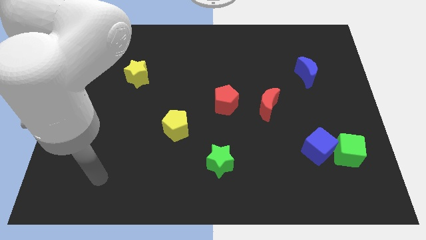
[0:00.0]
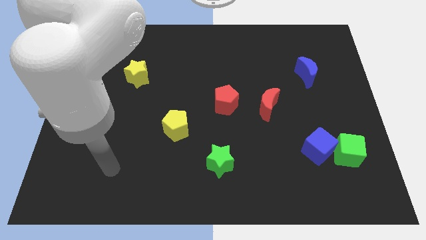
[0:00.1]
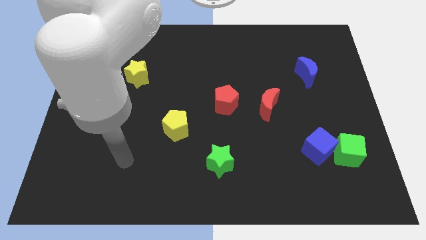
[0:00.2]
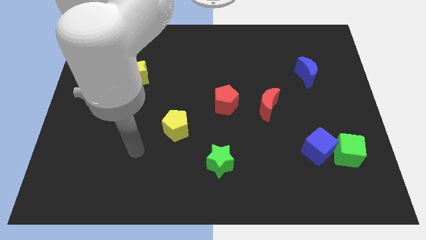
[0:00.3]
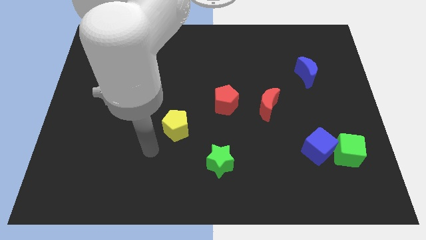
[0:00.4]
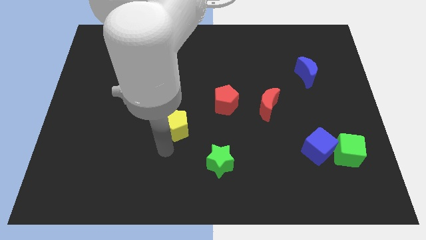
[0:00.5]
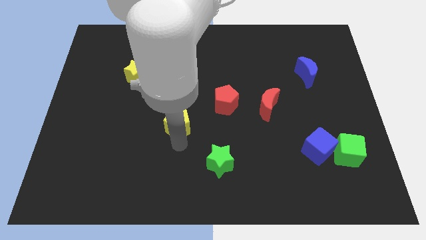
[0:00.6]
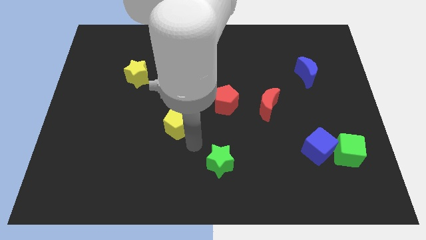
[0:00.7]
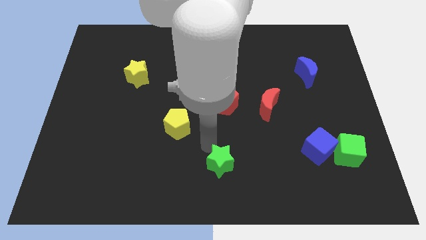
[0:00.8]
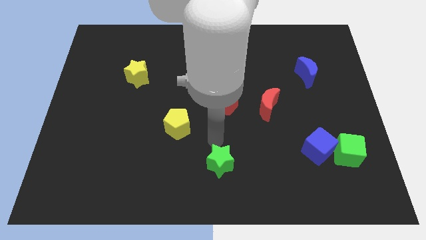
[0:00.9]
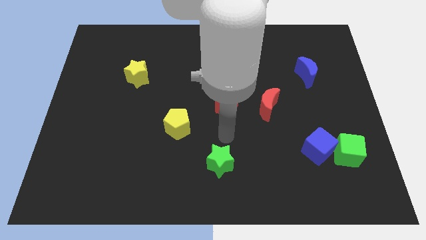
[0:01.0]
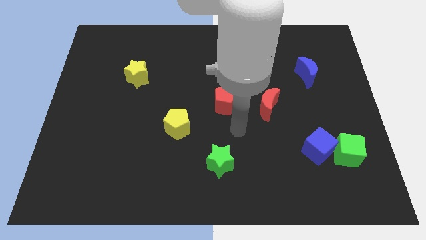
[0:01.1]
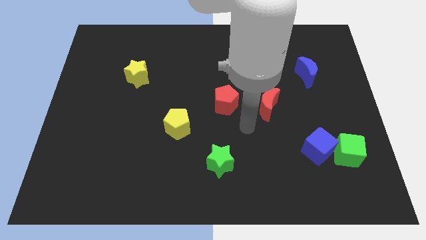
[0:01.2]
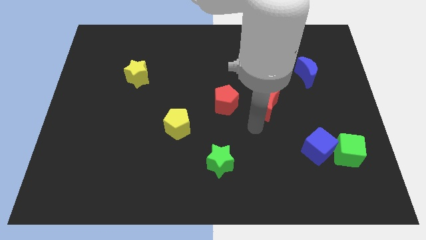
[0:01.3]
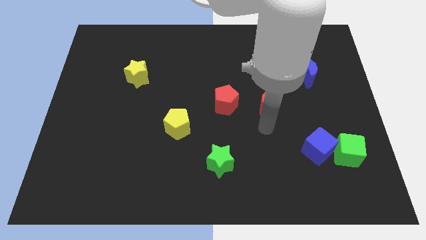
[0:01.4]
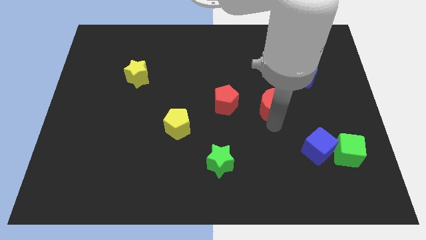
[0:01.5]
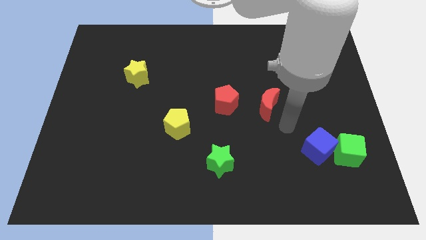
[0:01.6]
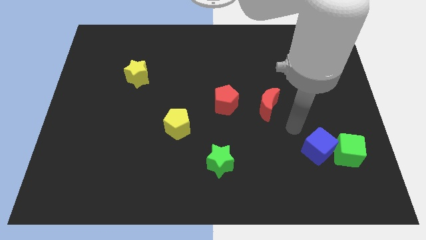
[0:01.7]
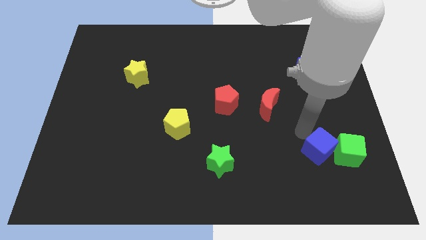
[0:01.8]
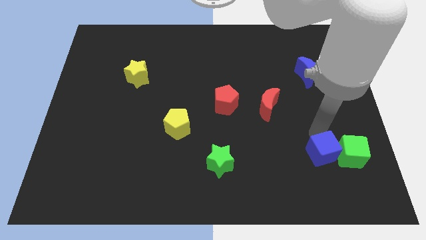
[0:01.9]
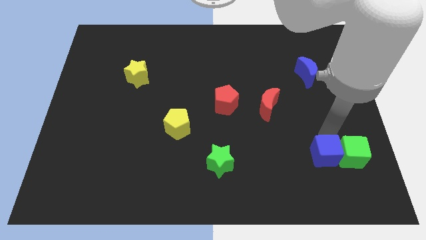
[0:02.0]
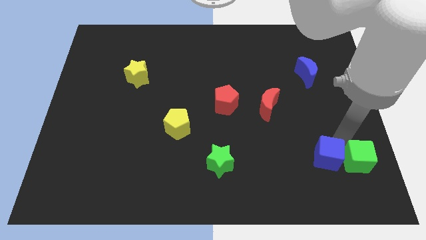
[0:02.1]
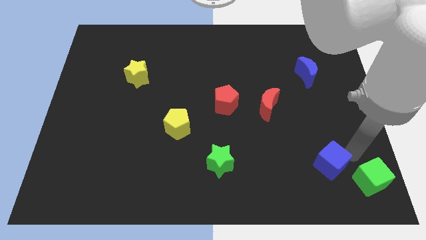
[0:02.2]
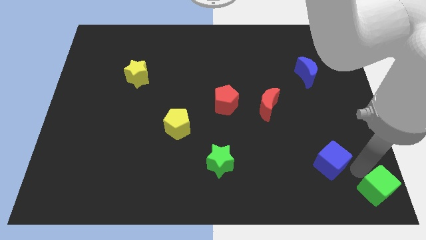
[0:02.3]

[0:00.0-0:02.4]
separate the blue cube from the green cube

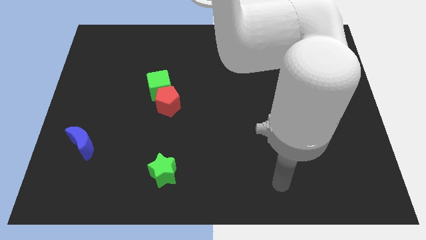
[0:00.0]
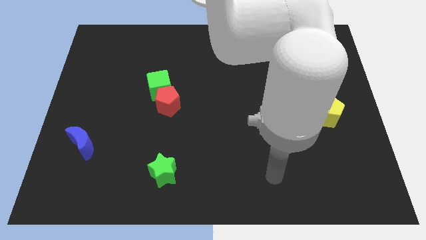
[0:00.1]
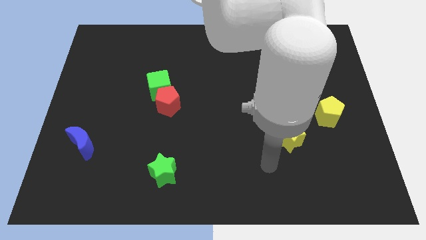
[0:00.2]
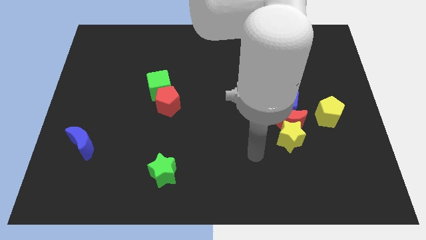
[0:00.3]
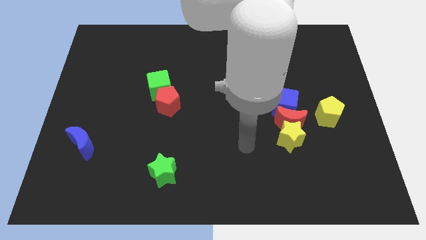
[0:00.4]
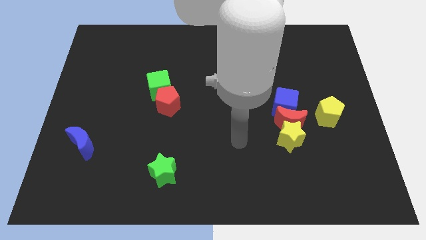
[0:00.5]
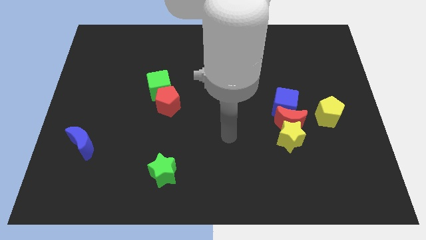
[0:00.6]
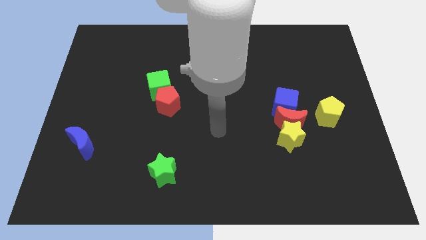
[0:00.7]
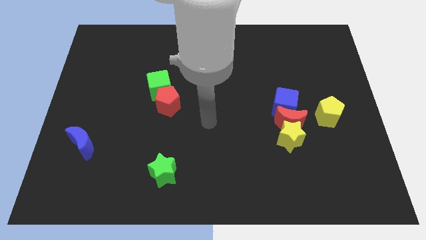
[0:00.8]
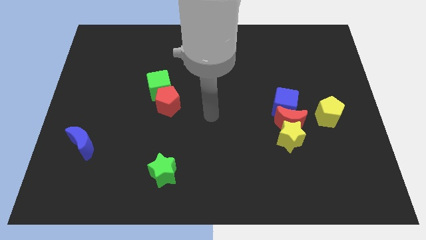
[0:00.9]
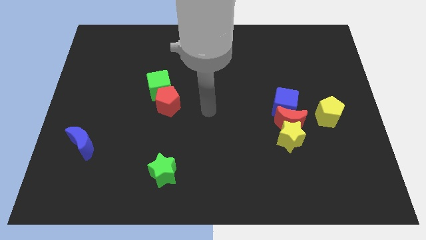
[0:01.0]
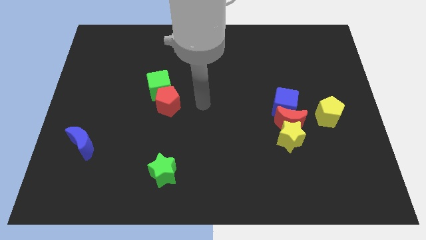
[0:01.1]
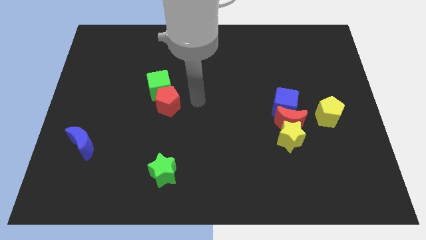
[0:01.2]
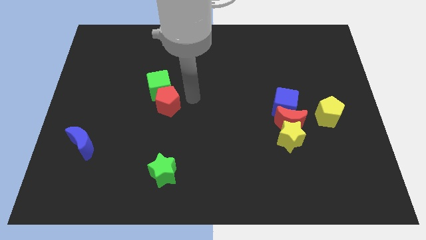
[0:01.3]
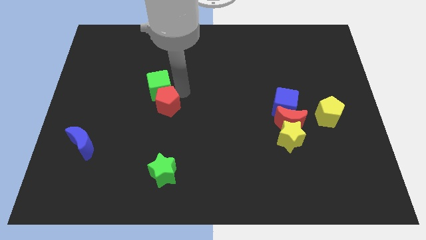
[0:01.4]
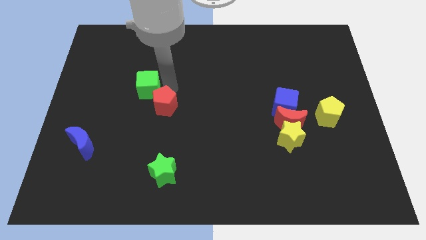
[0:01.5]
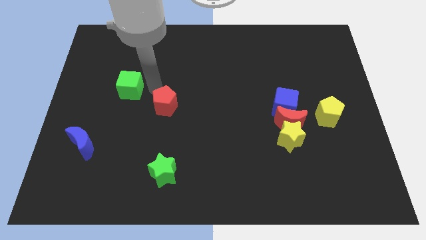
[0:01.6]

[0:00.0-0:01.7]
move the red pentagon away from the green cube

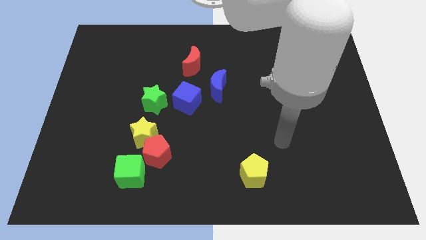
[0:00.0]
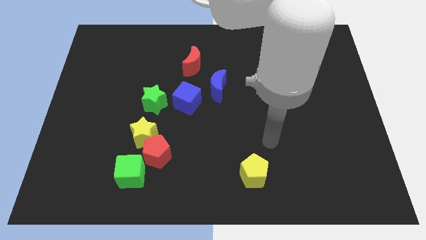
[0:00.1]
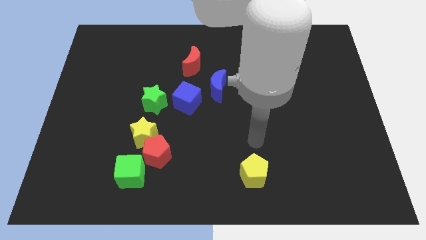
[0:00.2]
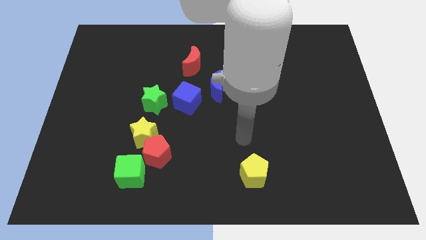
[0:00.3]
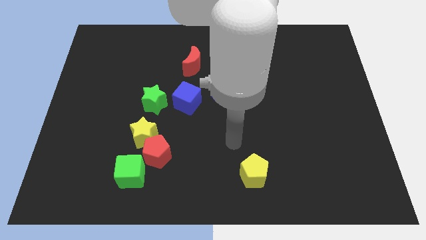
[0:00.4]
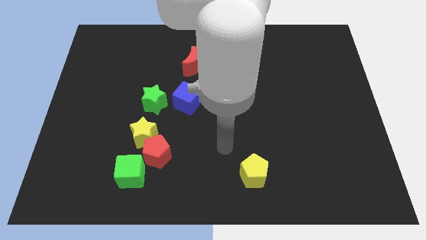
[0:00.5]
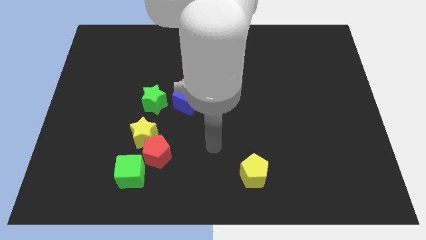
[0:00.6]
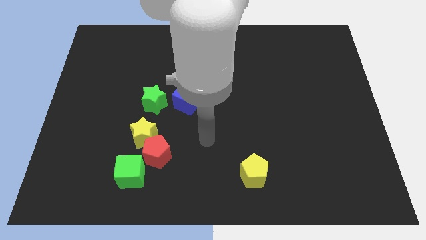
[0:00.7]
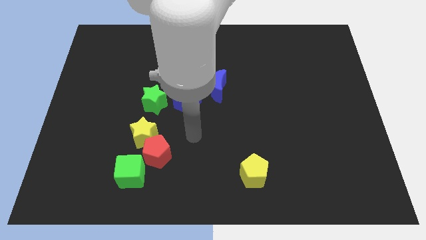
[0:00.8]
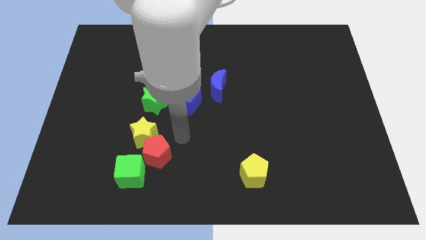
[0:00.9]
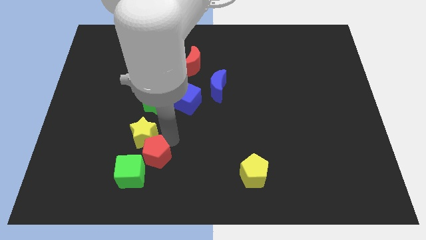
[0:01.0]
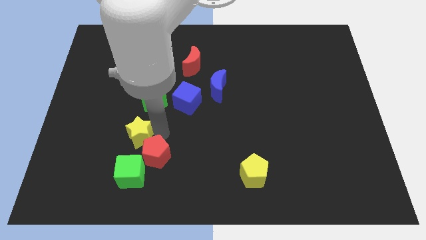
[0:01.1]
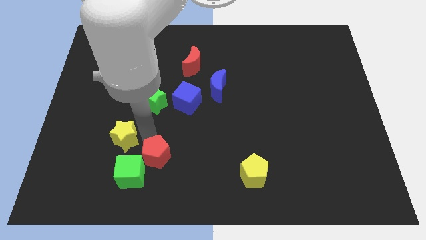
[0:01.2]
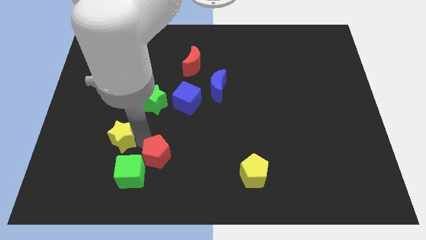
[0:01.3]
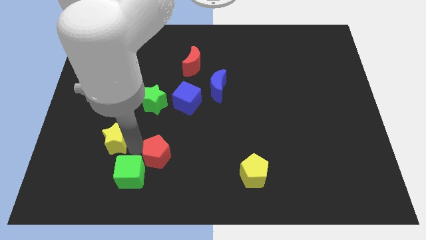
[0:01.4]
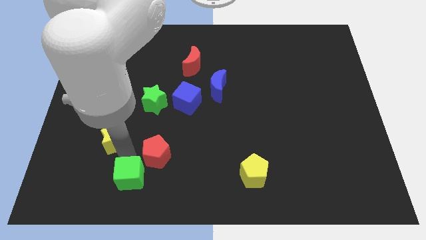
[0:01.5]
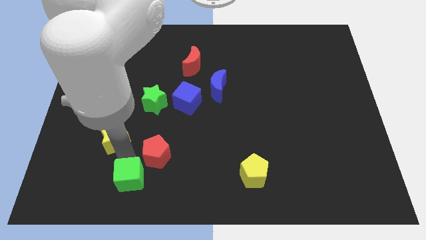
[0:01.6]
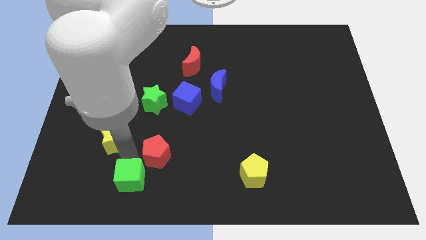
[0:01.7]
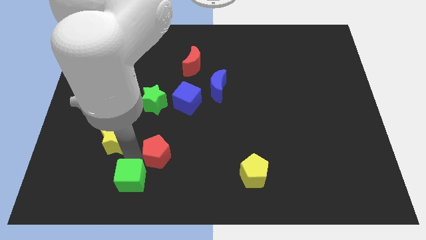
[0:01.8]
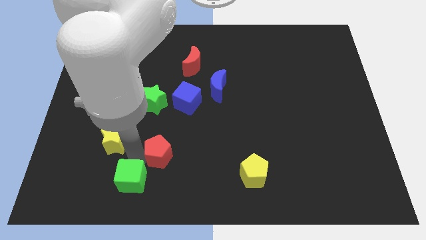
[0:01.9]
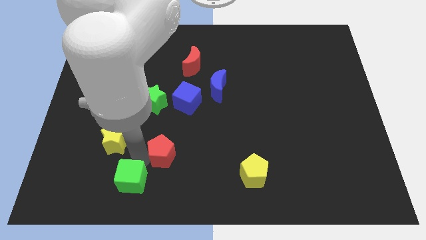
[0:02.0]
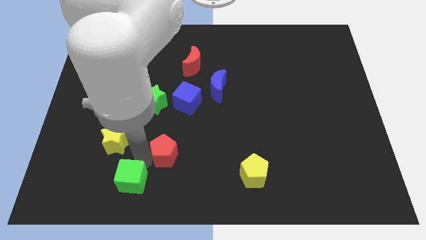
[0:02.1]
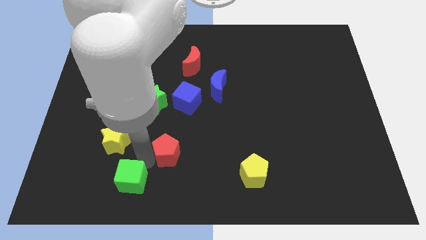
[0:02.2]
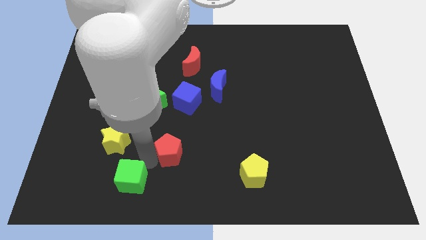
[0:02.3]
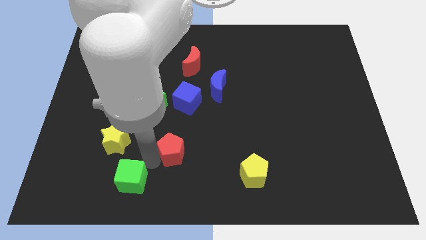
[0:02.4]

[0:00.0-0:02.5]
pull the red pentagon apart from the yellow star and green cube

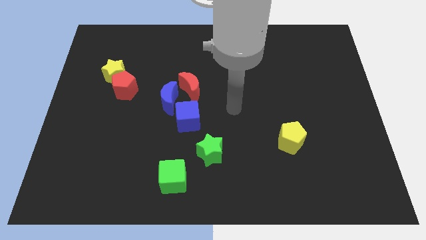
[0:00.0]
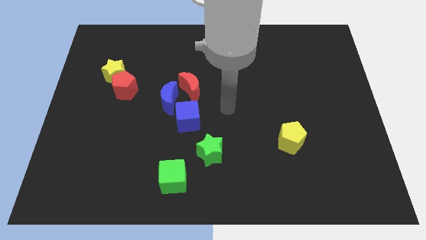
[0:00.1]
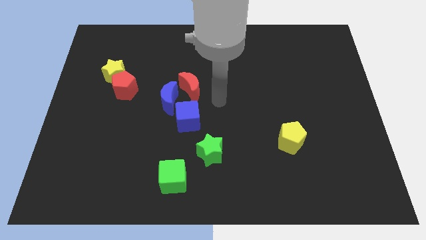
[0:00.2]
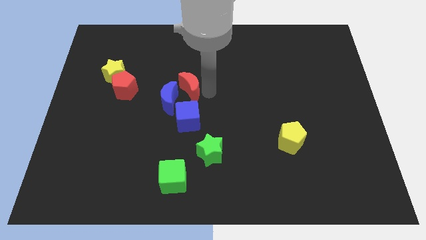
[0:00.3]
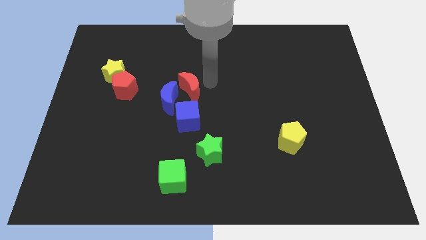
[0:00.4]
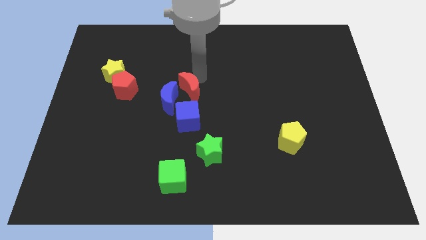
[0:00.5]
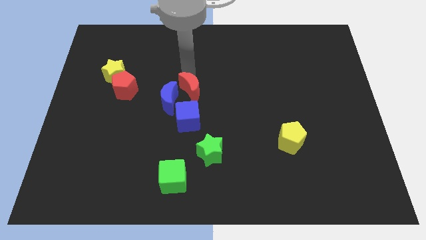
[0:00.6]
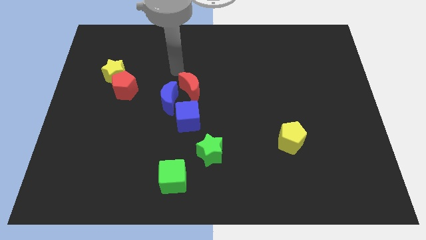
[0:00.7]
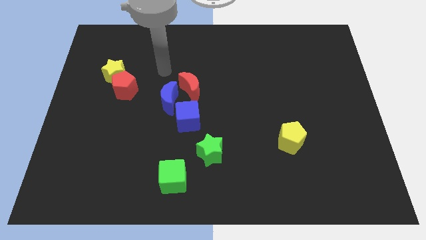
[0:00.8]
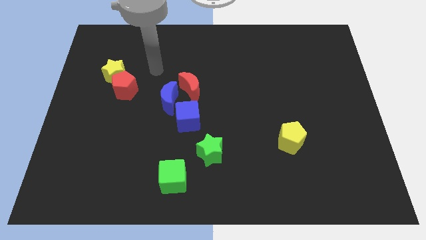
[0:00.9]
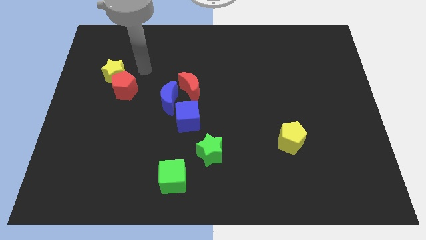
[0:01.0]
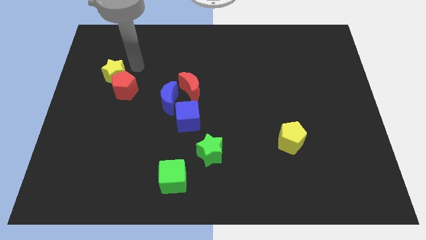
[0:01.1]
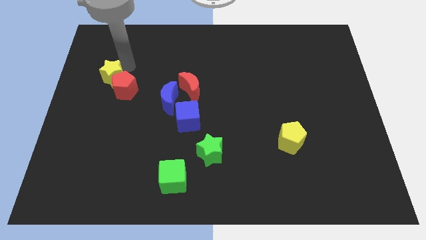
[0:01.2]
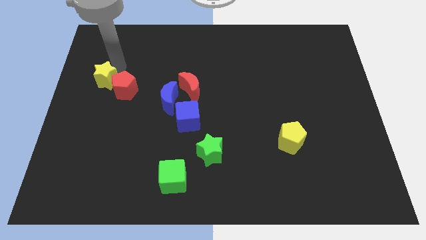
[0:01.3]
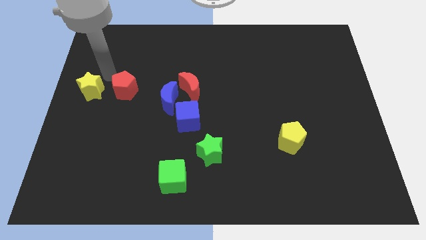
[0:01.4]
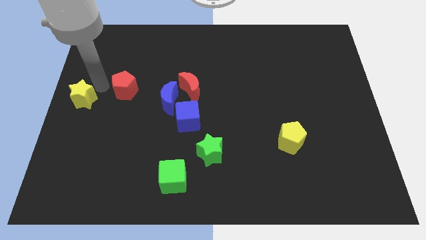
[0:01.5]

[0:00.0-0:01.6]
pull the red pentagon apart from the yellow star

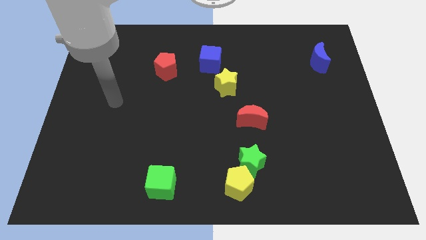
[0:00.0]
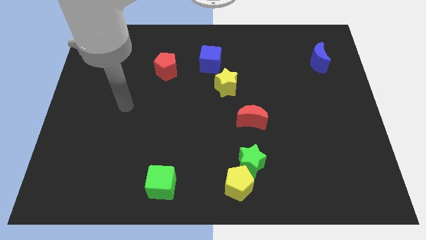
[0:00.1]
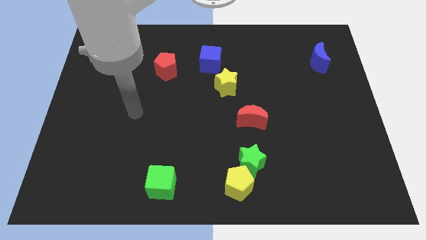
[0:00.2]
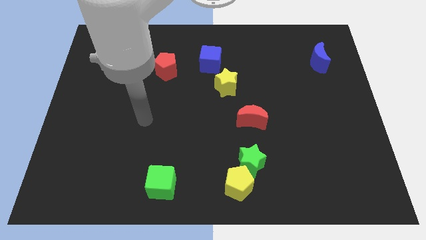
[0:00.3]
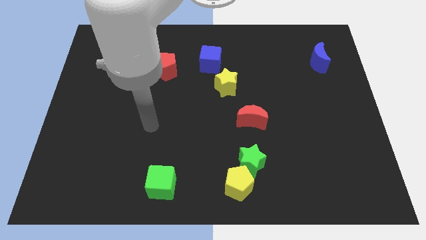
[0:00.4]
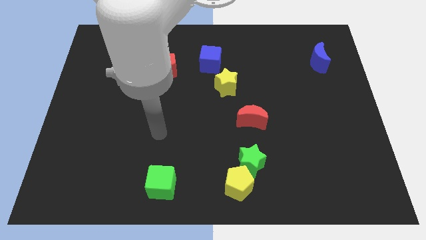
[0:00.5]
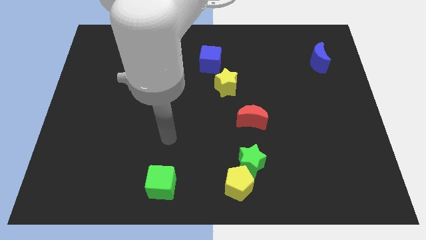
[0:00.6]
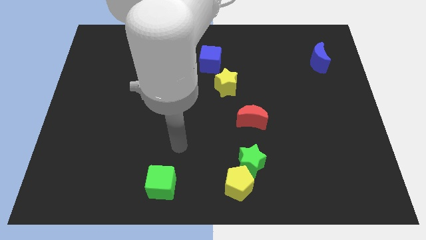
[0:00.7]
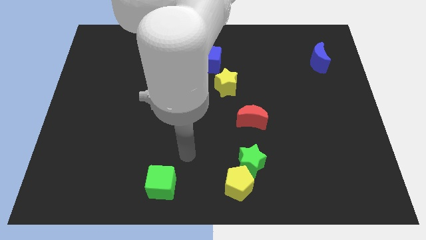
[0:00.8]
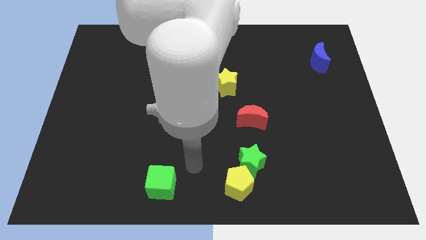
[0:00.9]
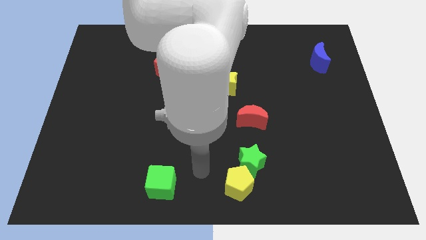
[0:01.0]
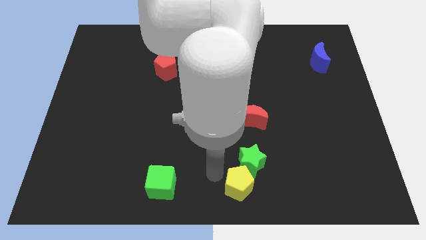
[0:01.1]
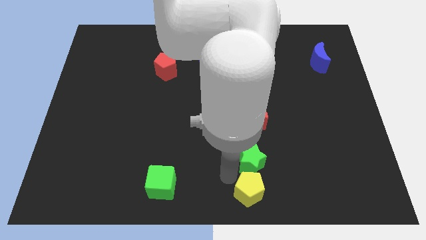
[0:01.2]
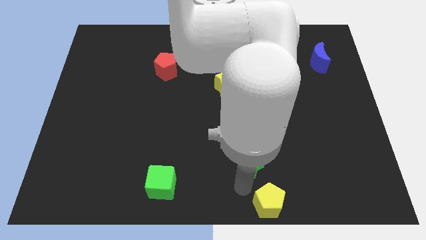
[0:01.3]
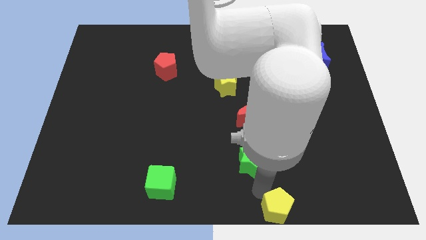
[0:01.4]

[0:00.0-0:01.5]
pull the green star apart from the yellow pentagon
